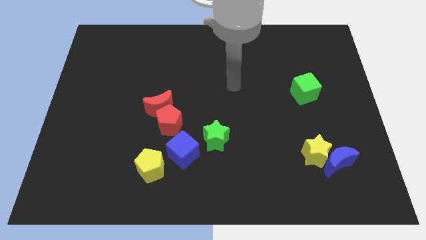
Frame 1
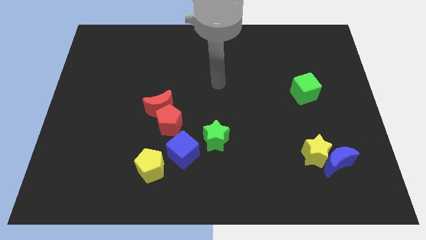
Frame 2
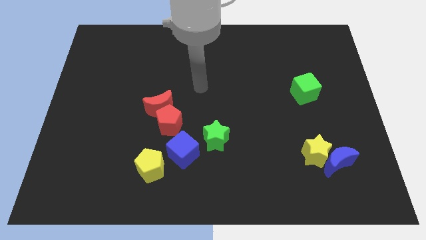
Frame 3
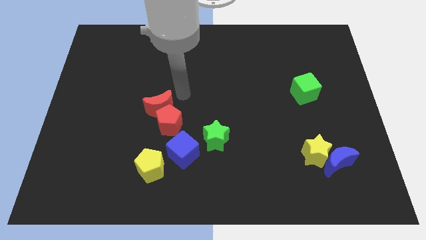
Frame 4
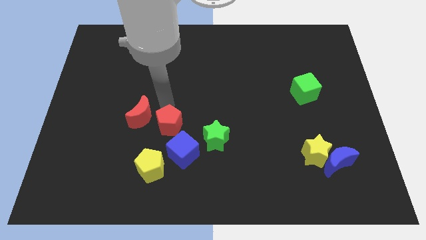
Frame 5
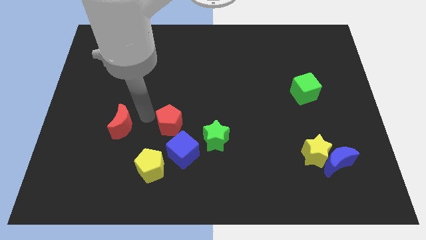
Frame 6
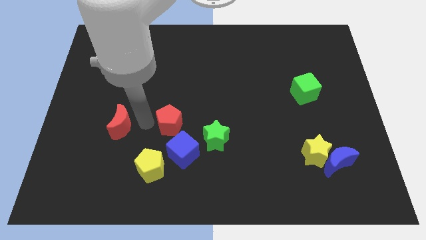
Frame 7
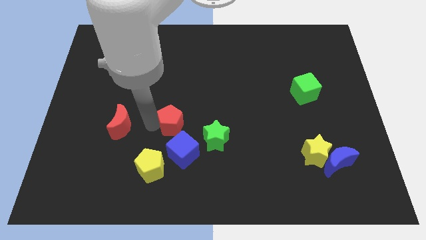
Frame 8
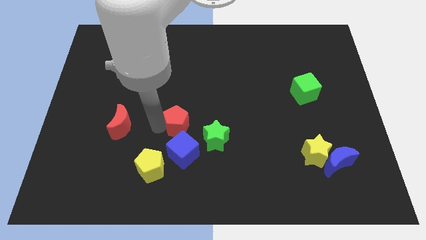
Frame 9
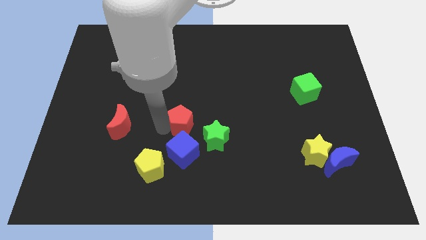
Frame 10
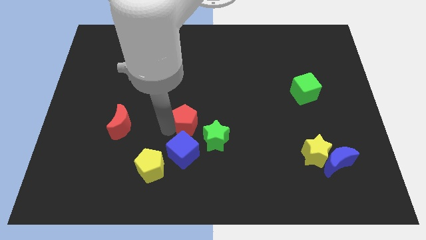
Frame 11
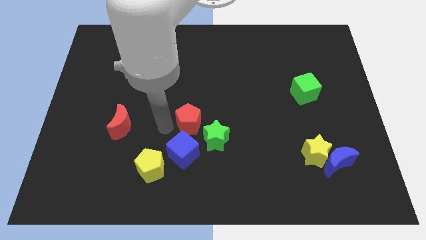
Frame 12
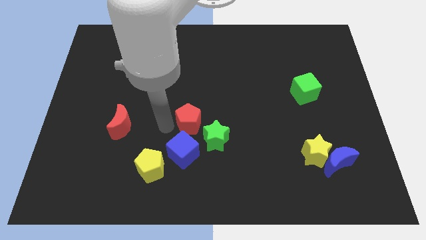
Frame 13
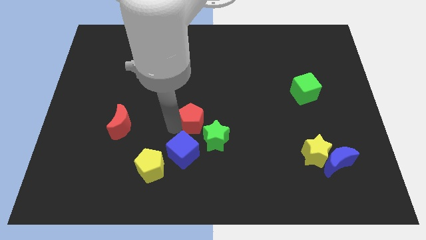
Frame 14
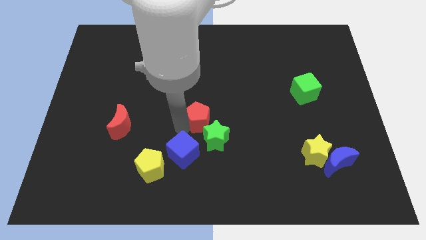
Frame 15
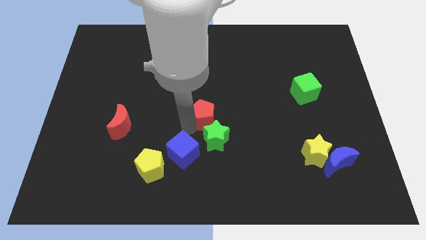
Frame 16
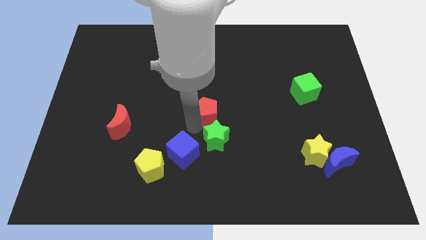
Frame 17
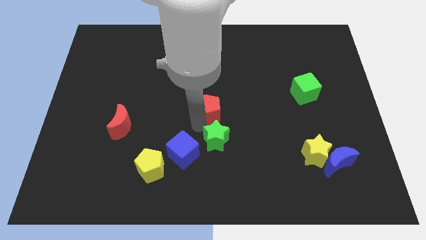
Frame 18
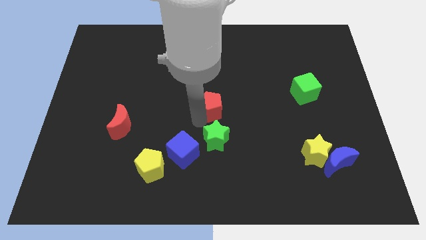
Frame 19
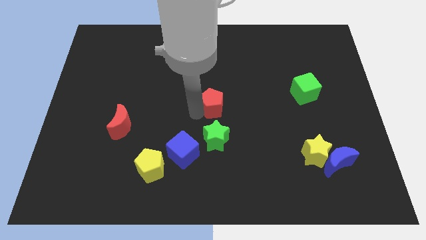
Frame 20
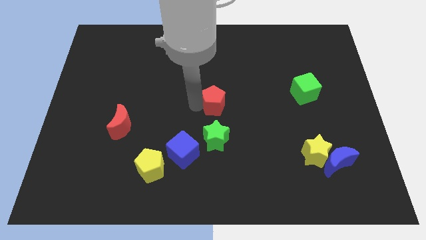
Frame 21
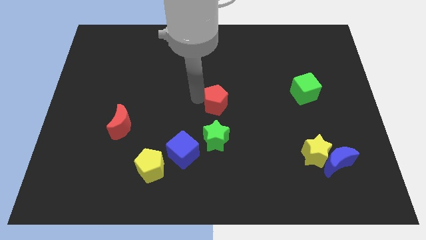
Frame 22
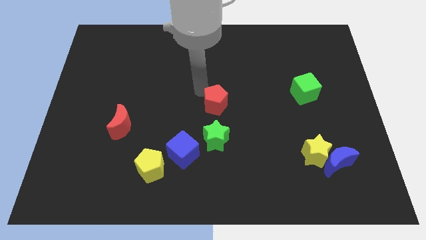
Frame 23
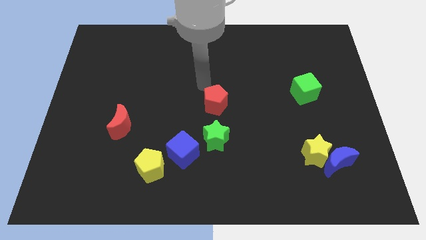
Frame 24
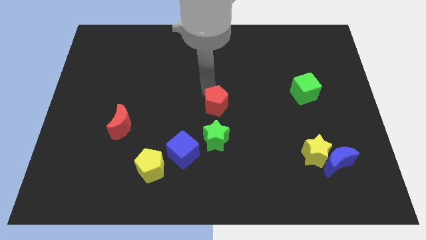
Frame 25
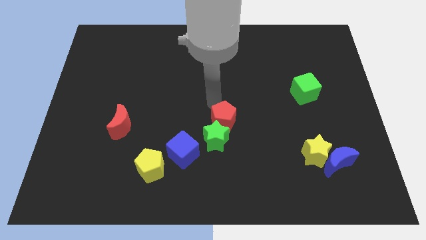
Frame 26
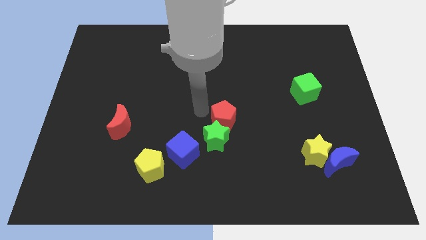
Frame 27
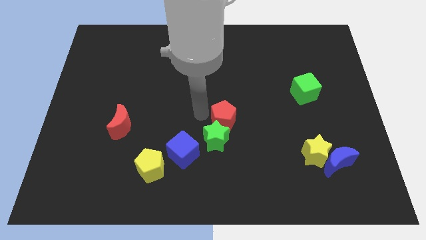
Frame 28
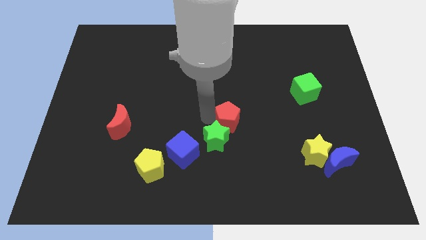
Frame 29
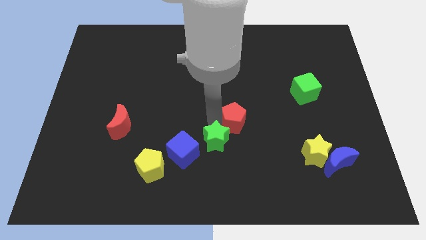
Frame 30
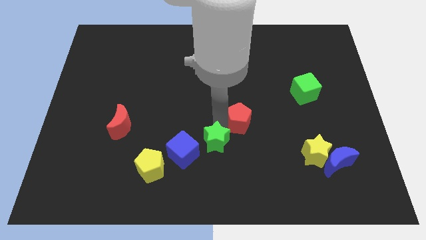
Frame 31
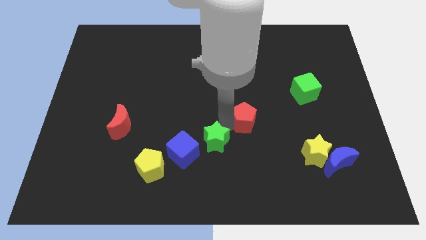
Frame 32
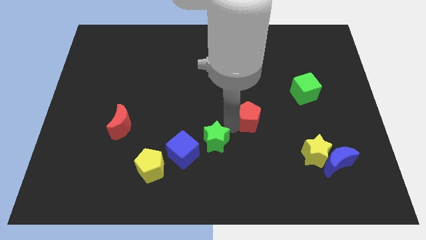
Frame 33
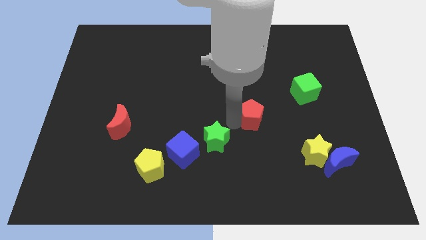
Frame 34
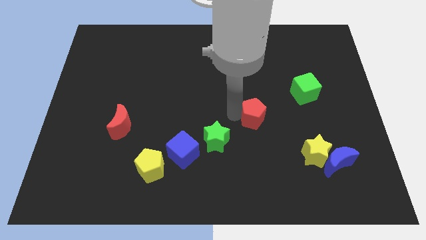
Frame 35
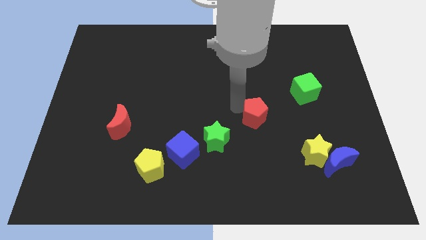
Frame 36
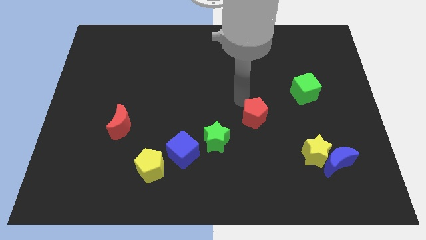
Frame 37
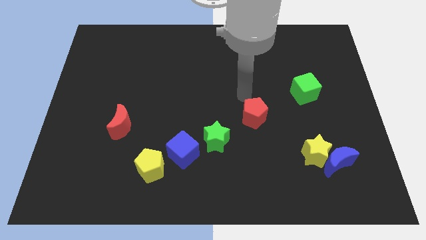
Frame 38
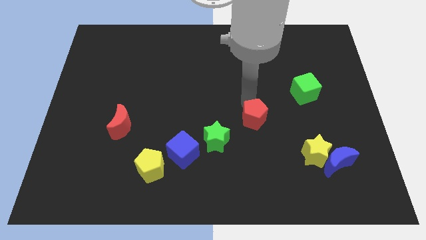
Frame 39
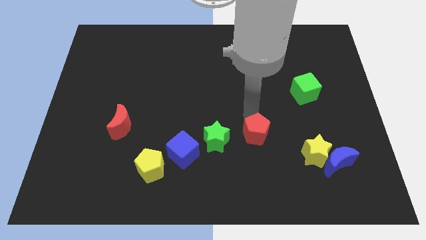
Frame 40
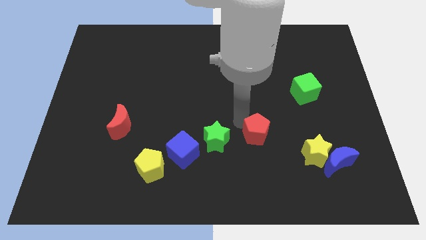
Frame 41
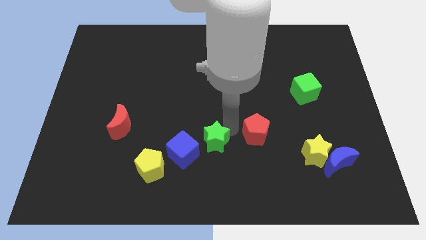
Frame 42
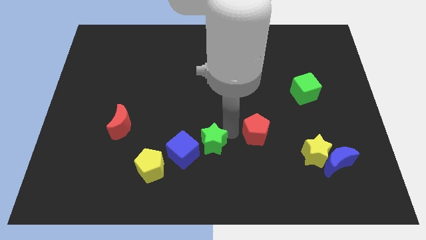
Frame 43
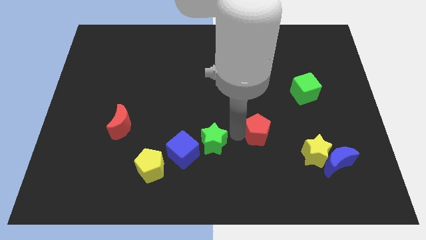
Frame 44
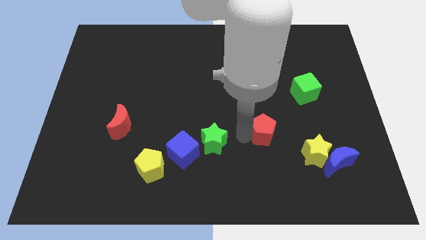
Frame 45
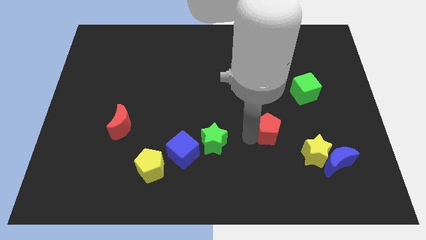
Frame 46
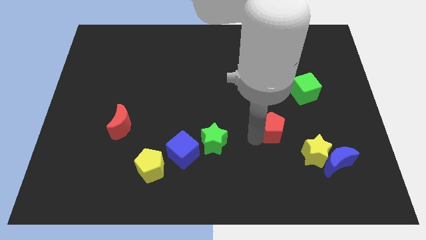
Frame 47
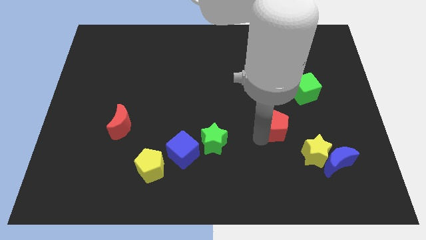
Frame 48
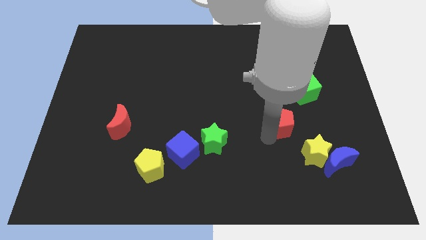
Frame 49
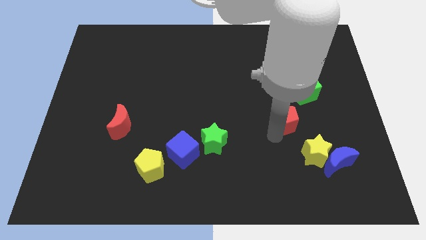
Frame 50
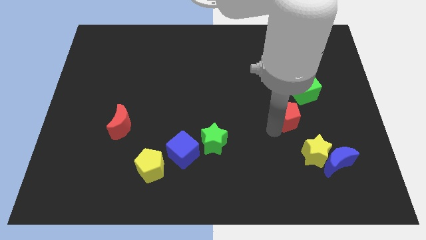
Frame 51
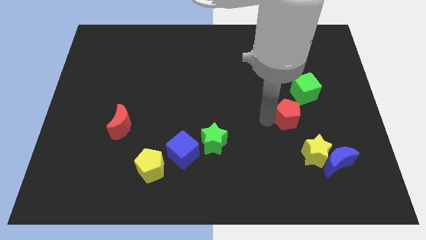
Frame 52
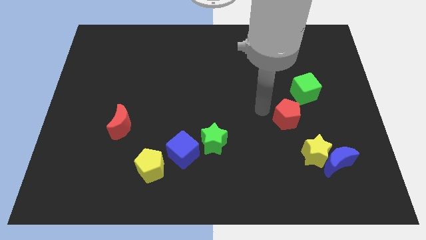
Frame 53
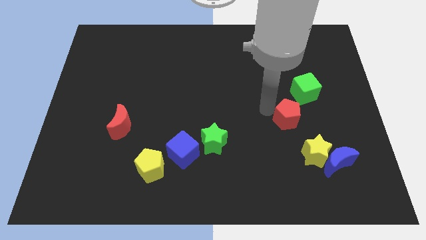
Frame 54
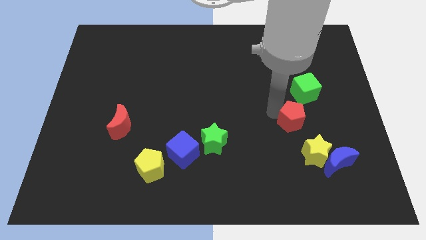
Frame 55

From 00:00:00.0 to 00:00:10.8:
slide the red pentagon below the green cube
